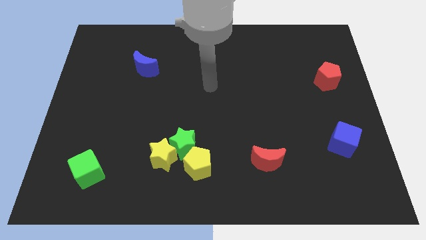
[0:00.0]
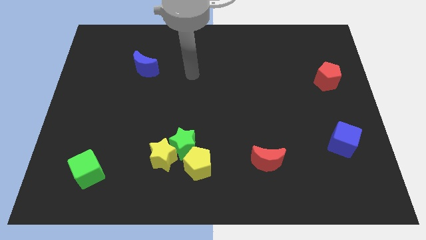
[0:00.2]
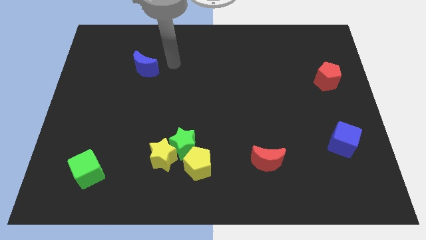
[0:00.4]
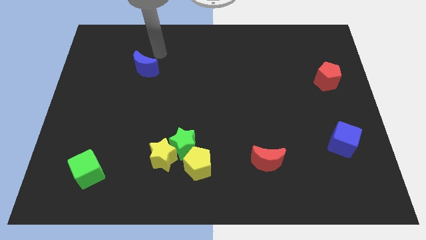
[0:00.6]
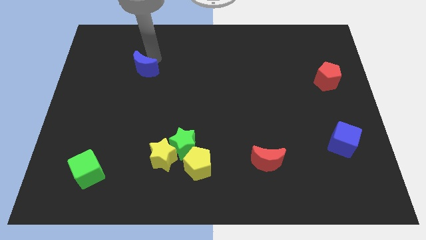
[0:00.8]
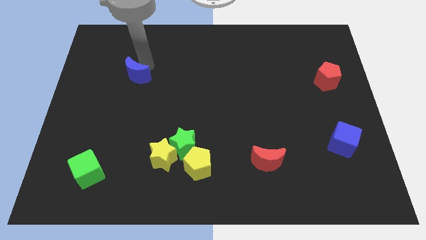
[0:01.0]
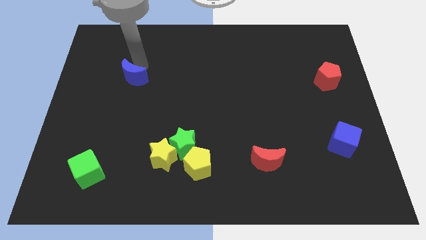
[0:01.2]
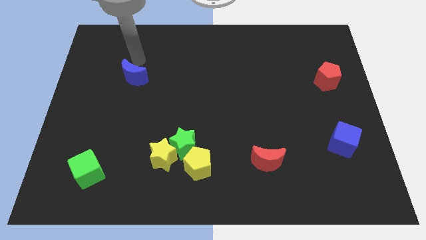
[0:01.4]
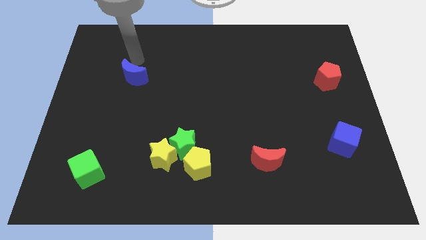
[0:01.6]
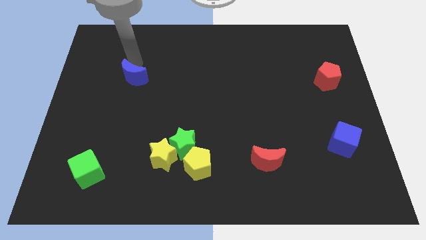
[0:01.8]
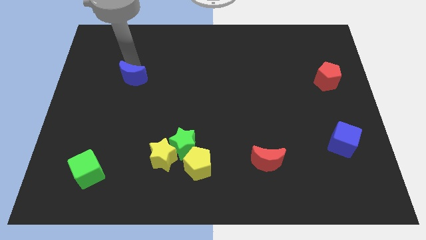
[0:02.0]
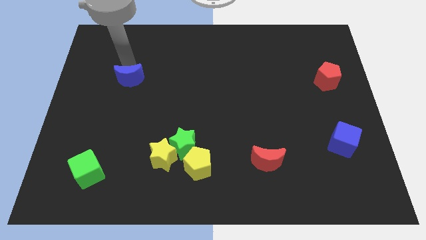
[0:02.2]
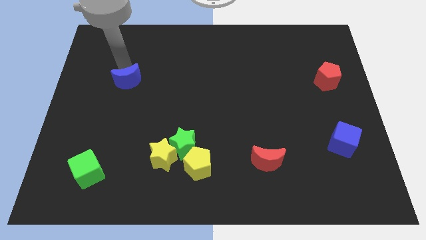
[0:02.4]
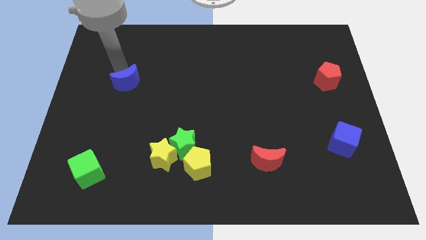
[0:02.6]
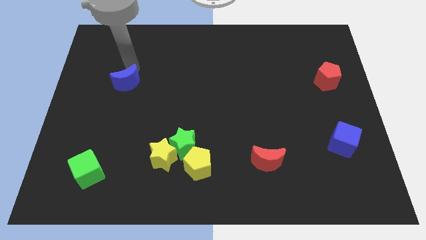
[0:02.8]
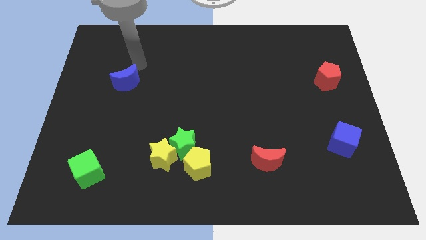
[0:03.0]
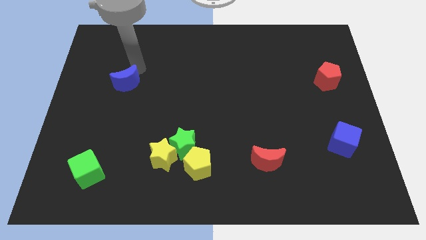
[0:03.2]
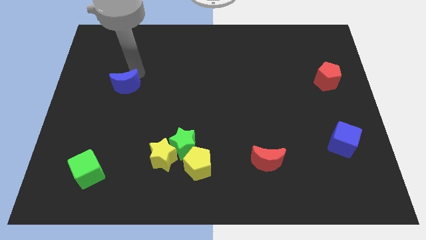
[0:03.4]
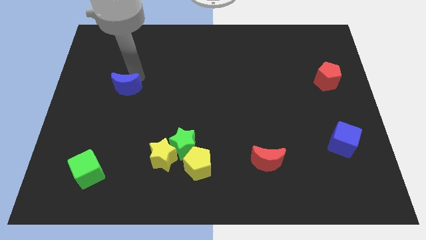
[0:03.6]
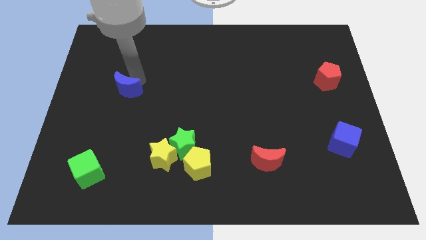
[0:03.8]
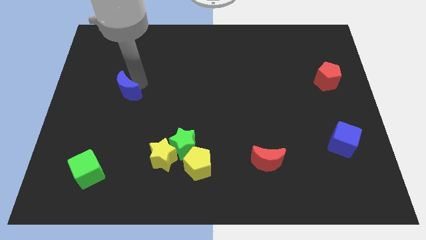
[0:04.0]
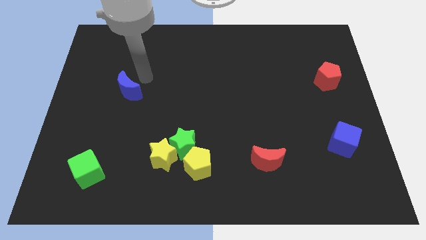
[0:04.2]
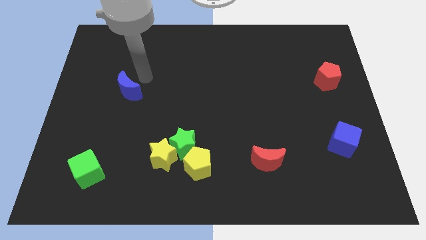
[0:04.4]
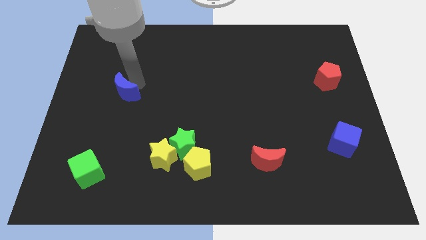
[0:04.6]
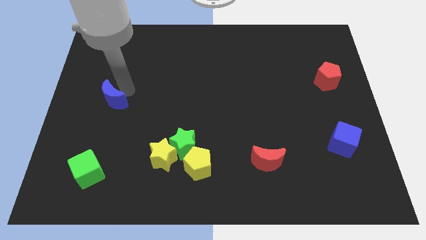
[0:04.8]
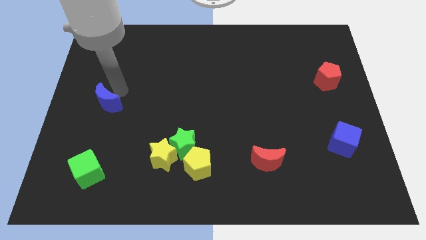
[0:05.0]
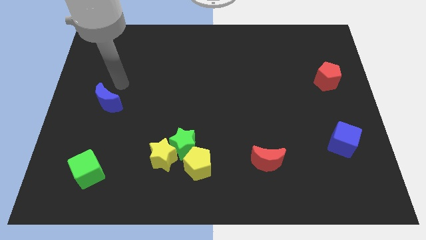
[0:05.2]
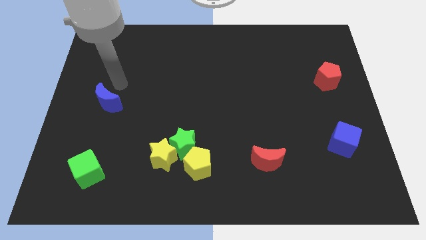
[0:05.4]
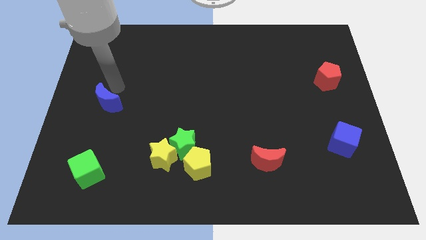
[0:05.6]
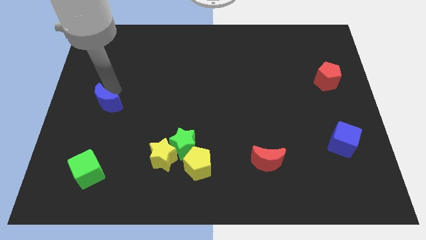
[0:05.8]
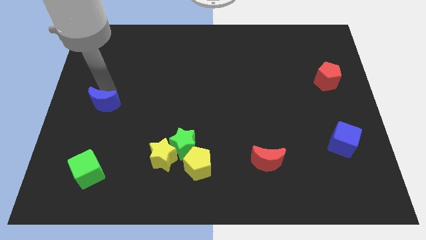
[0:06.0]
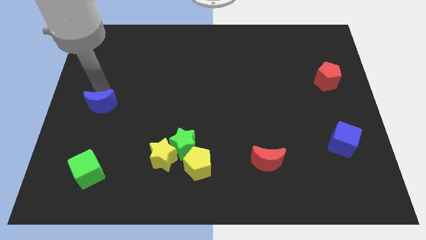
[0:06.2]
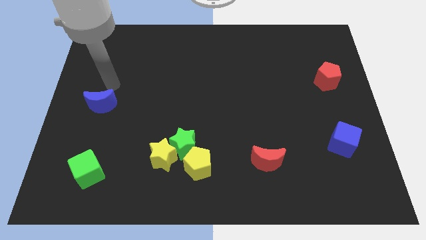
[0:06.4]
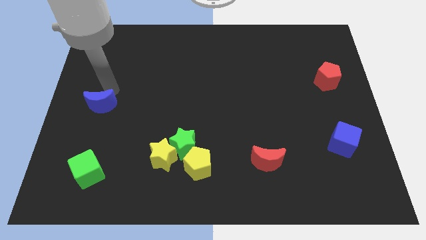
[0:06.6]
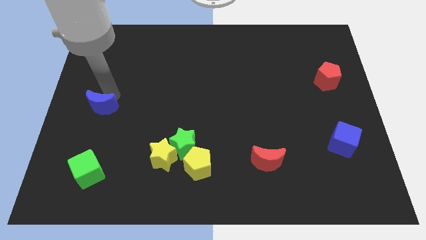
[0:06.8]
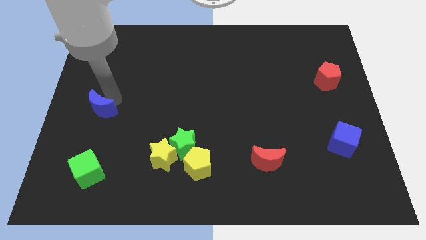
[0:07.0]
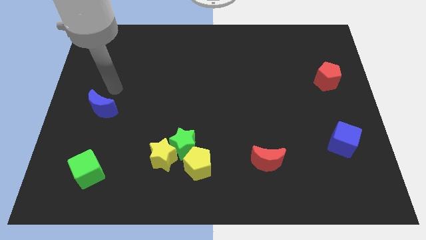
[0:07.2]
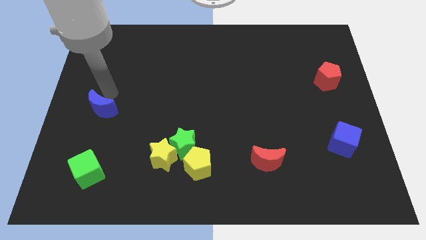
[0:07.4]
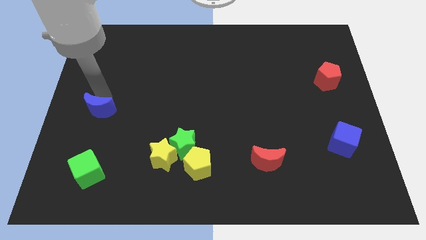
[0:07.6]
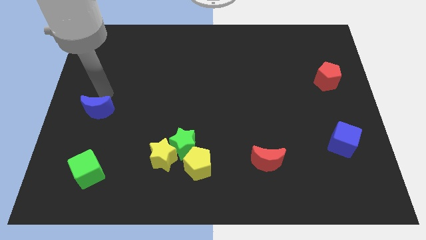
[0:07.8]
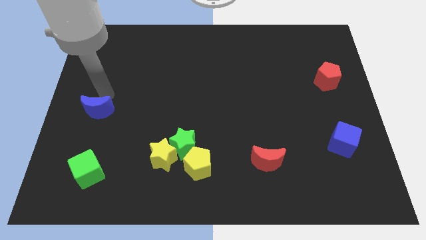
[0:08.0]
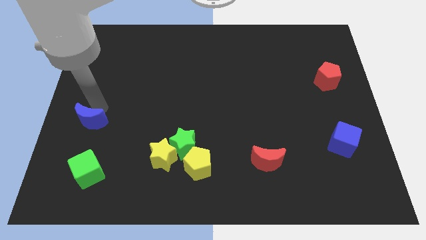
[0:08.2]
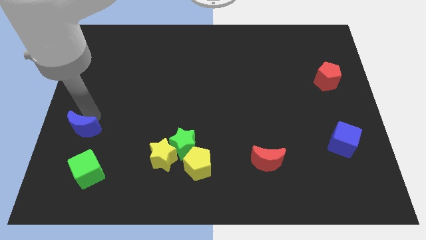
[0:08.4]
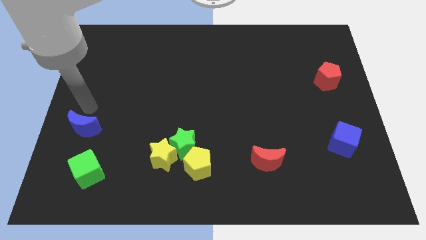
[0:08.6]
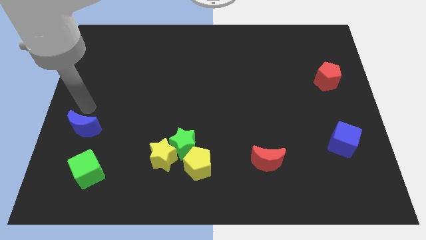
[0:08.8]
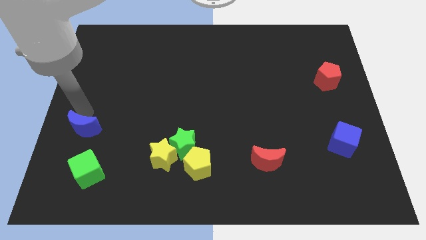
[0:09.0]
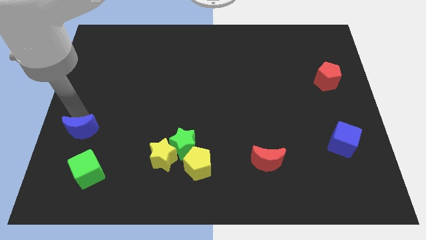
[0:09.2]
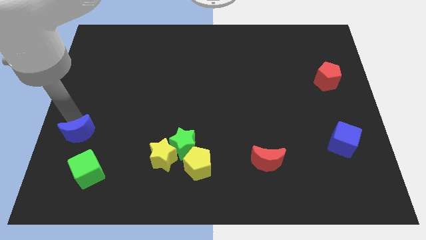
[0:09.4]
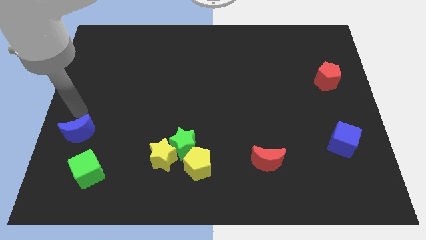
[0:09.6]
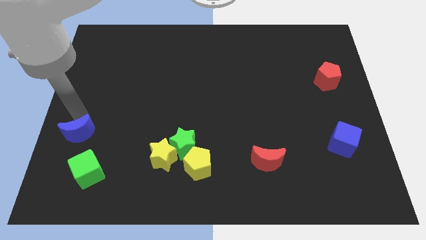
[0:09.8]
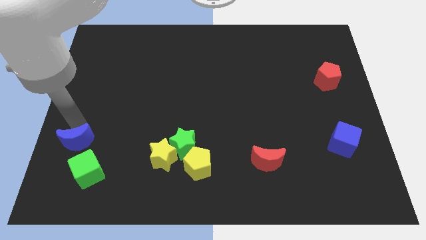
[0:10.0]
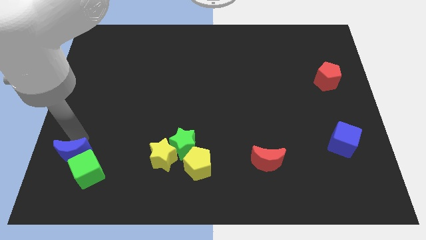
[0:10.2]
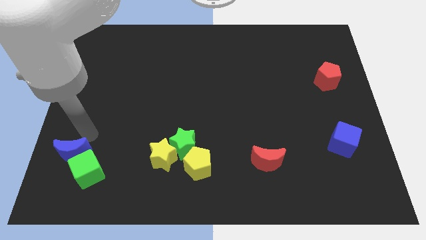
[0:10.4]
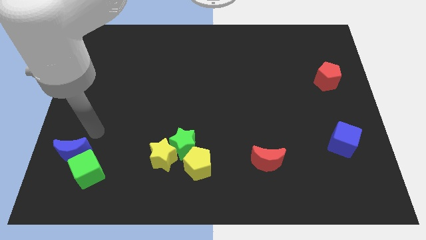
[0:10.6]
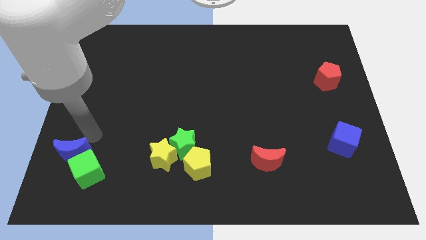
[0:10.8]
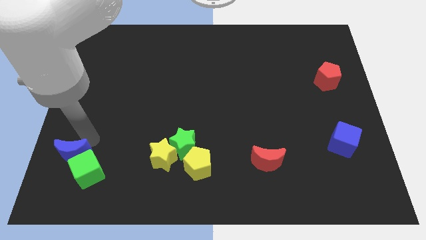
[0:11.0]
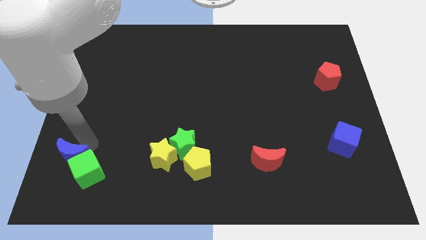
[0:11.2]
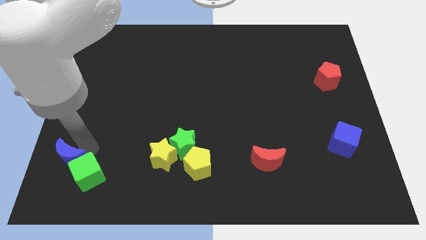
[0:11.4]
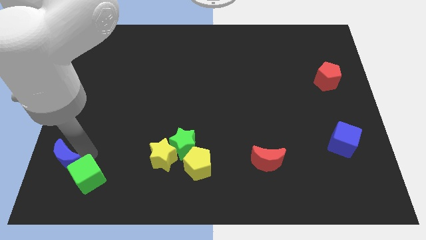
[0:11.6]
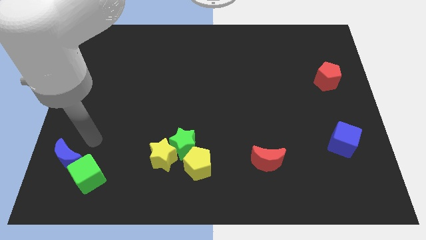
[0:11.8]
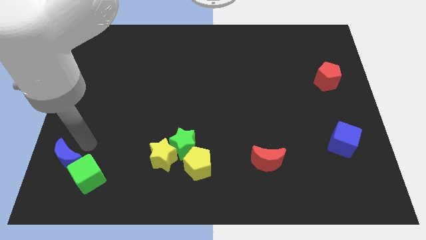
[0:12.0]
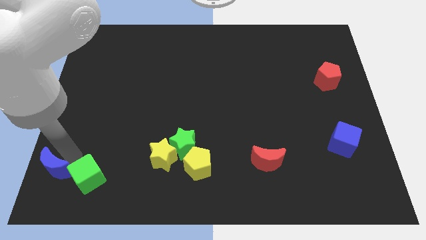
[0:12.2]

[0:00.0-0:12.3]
put the blue moon to the bottom left of the board

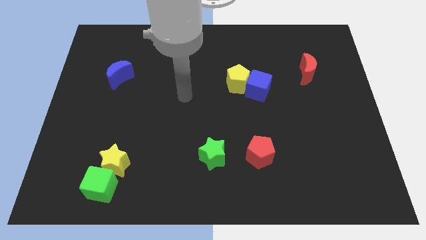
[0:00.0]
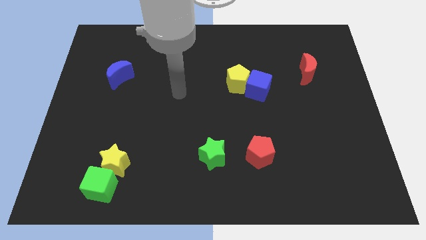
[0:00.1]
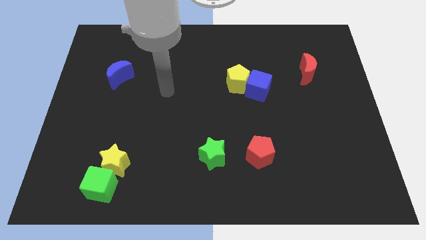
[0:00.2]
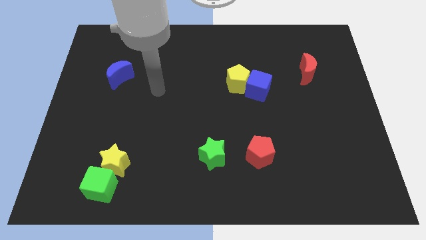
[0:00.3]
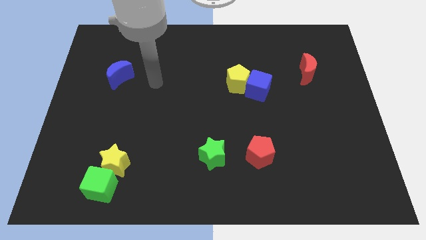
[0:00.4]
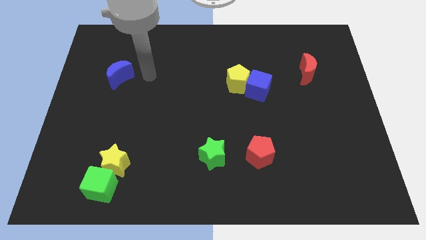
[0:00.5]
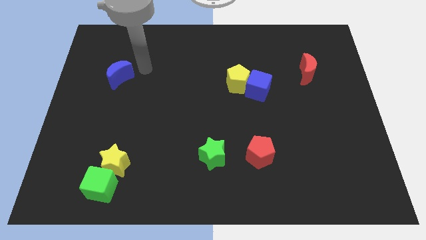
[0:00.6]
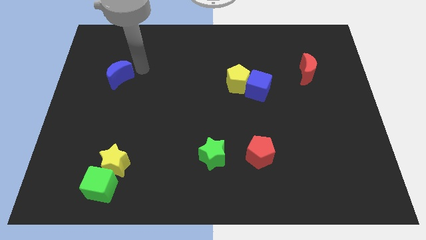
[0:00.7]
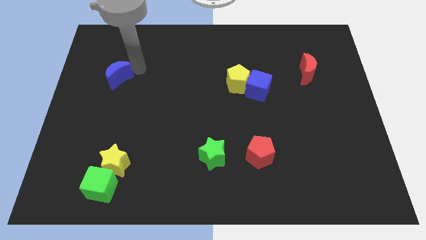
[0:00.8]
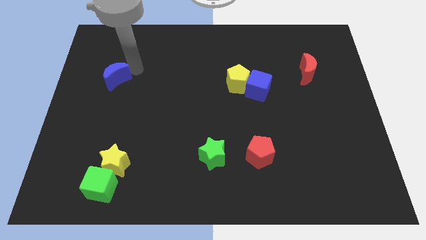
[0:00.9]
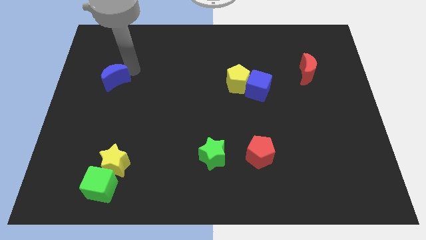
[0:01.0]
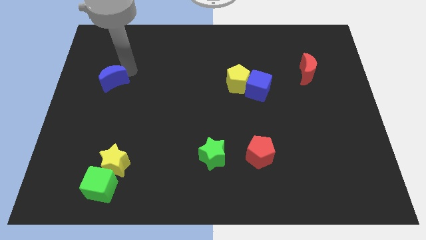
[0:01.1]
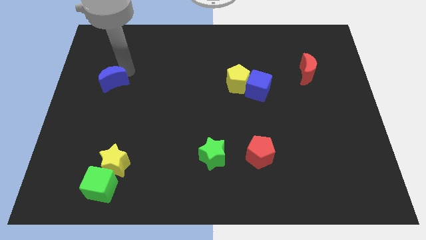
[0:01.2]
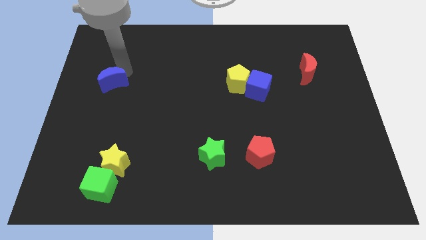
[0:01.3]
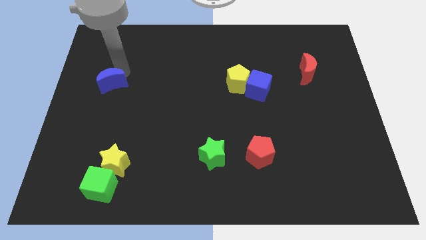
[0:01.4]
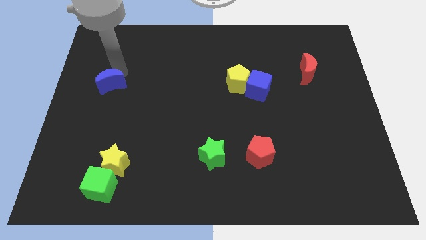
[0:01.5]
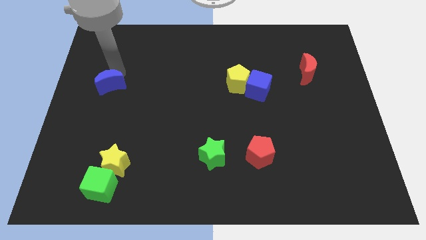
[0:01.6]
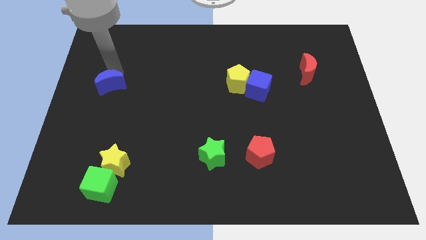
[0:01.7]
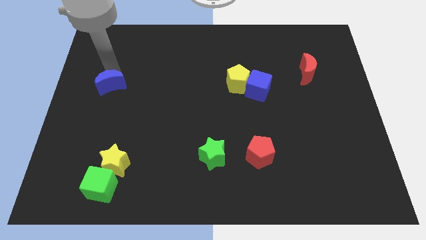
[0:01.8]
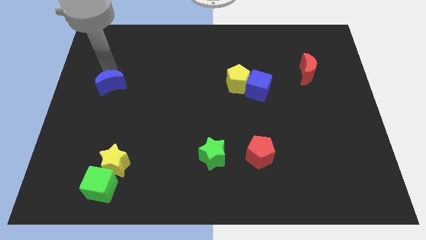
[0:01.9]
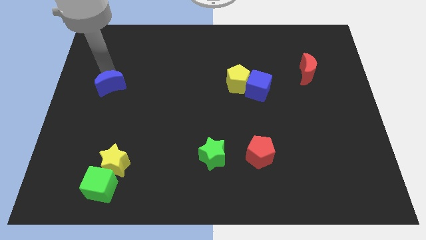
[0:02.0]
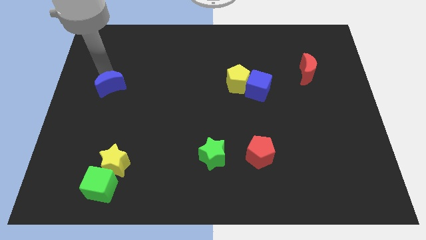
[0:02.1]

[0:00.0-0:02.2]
slide the blue moon to the left side
